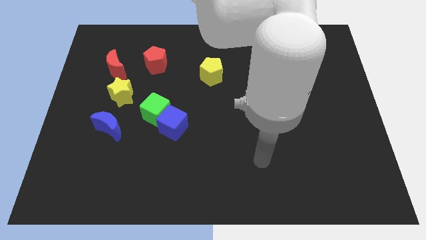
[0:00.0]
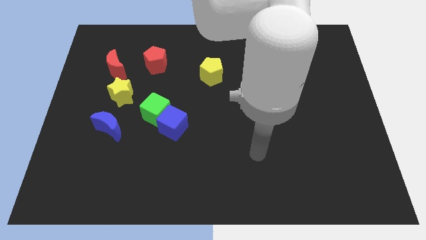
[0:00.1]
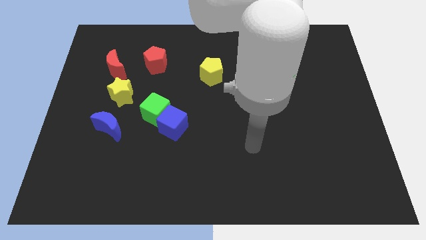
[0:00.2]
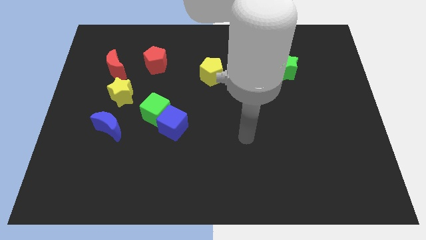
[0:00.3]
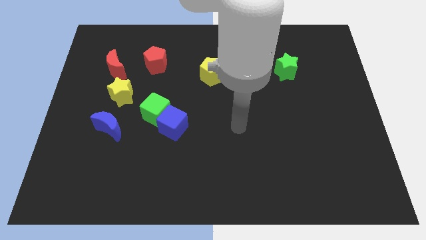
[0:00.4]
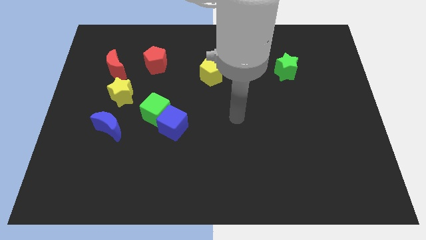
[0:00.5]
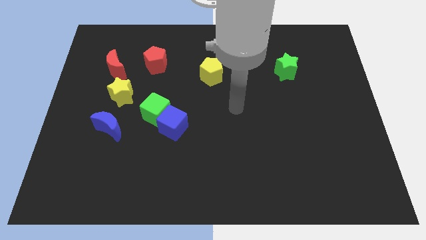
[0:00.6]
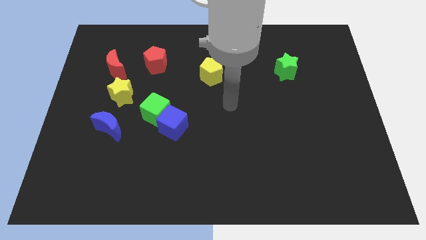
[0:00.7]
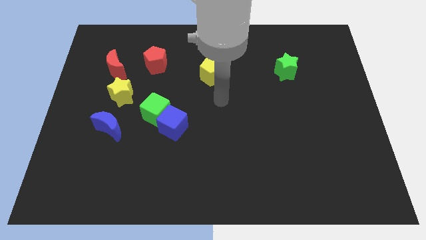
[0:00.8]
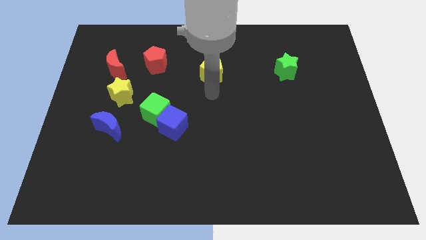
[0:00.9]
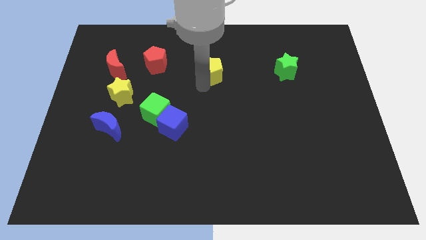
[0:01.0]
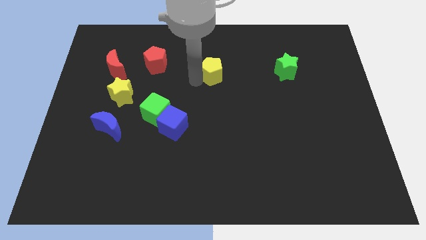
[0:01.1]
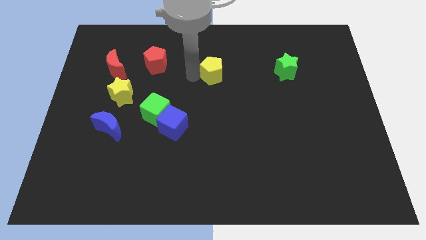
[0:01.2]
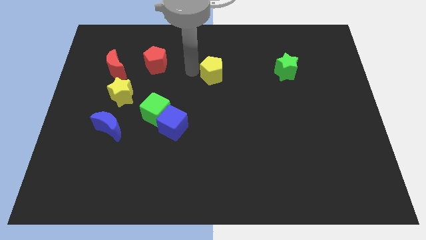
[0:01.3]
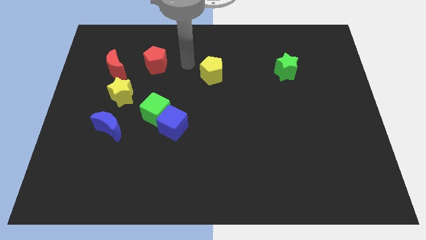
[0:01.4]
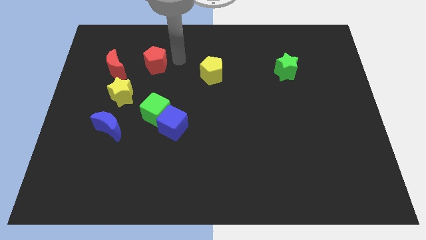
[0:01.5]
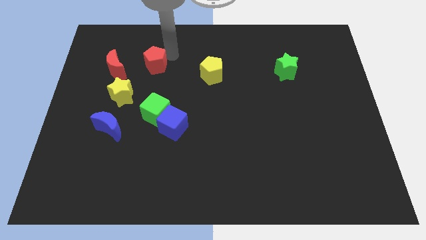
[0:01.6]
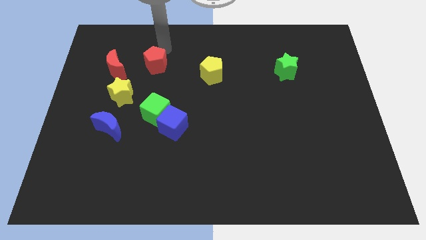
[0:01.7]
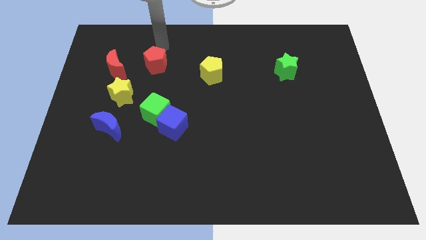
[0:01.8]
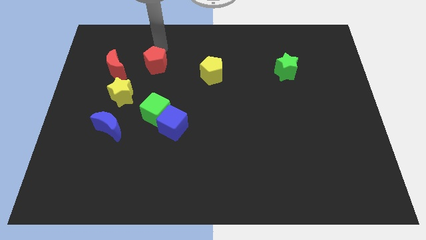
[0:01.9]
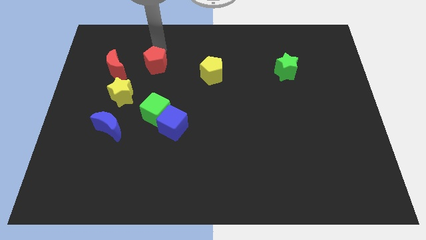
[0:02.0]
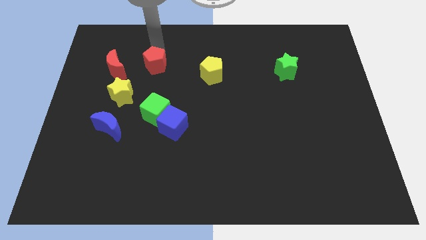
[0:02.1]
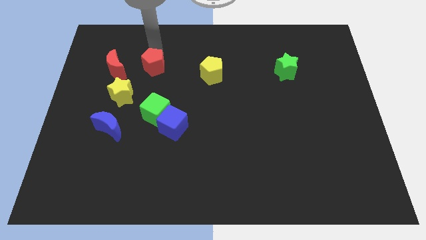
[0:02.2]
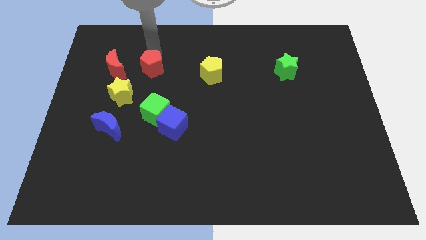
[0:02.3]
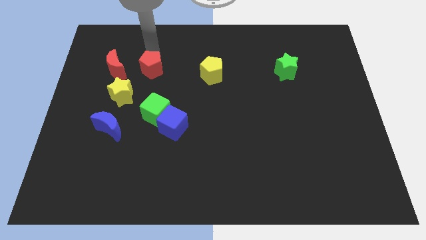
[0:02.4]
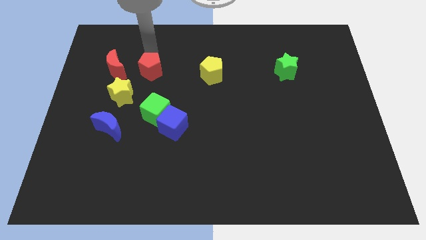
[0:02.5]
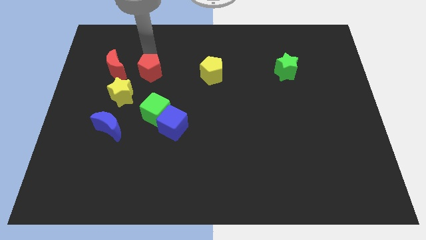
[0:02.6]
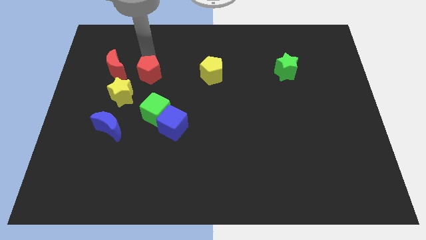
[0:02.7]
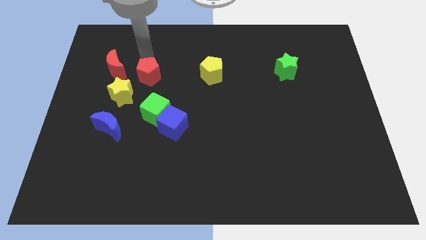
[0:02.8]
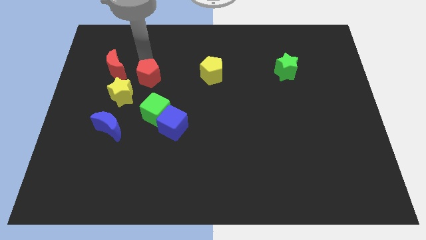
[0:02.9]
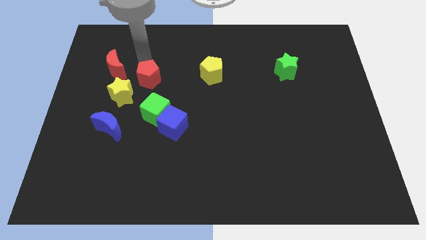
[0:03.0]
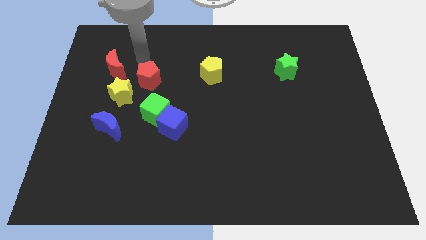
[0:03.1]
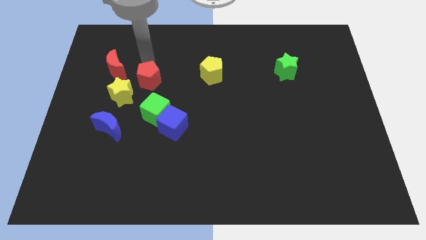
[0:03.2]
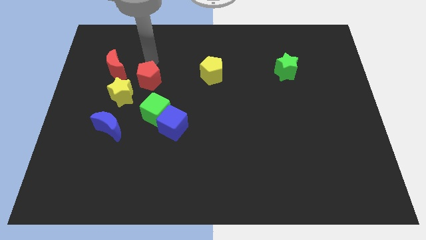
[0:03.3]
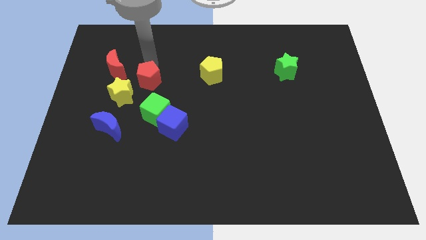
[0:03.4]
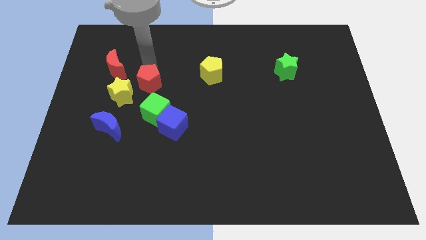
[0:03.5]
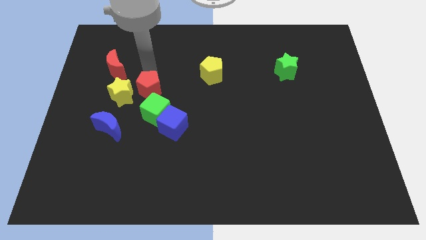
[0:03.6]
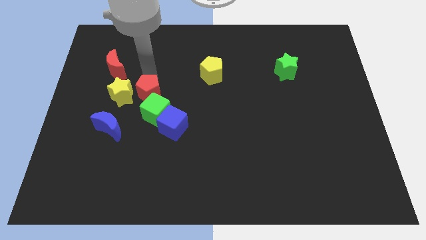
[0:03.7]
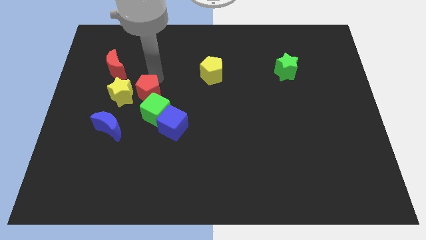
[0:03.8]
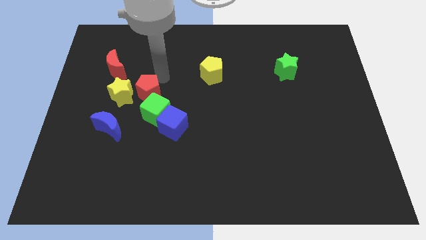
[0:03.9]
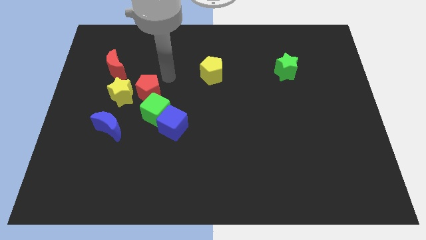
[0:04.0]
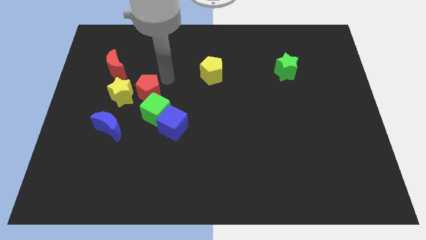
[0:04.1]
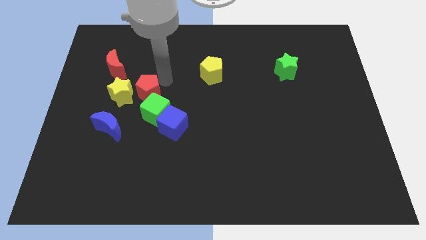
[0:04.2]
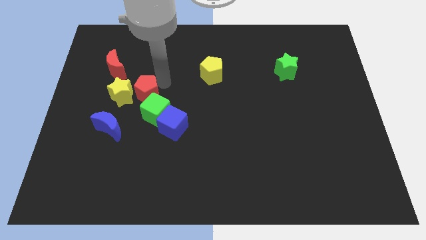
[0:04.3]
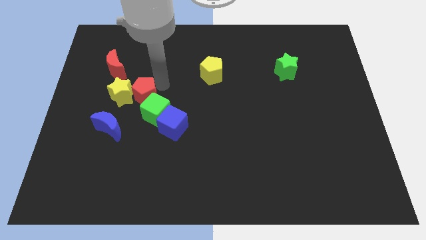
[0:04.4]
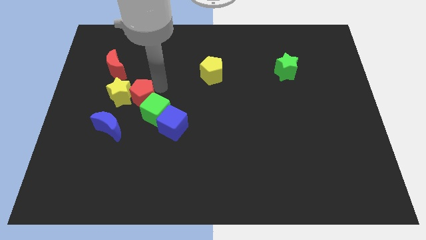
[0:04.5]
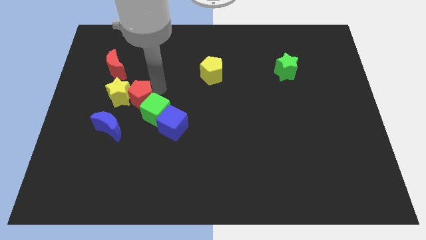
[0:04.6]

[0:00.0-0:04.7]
slide the red pentagon to the left of the green cube

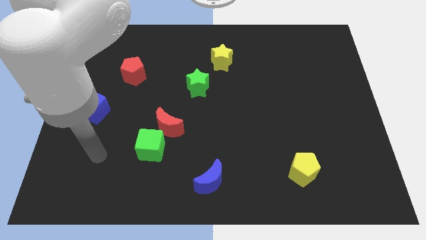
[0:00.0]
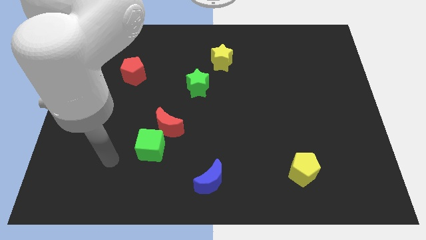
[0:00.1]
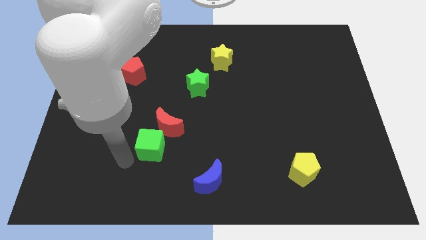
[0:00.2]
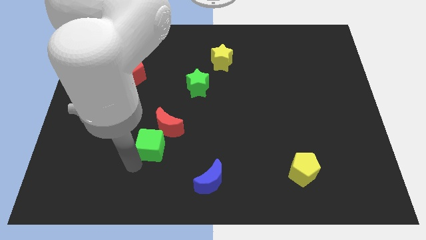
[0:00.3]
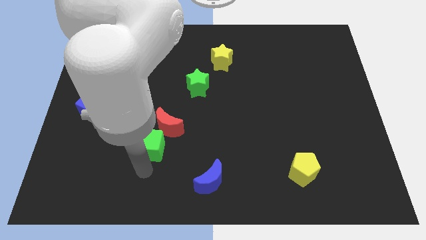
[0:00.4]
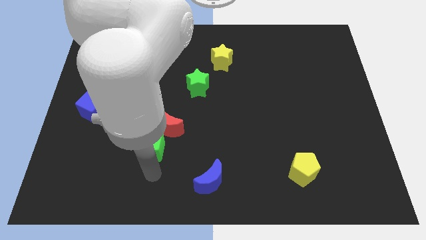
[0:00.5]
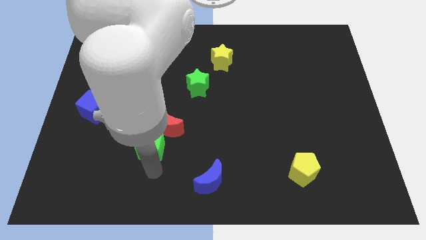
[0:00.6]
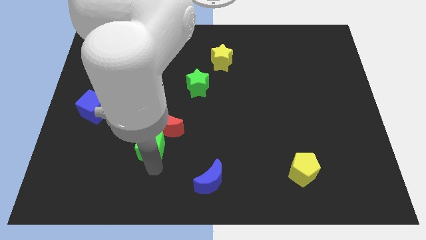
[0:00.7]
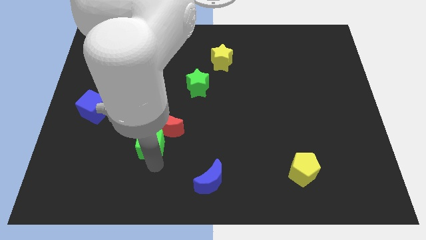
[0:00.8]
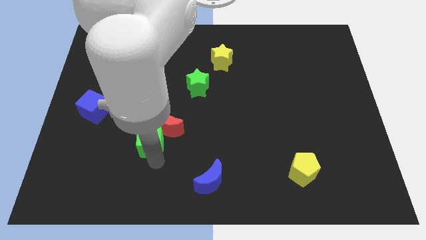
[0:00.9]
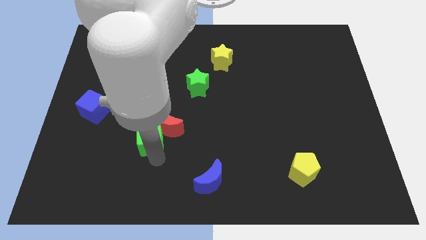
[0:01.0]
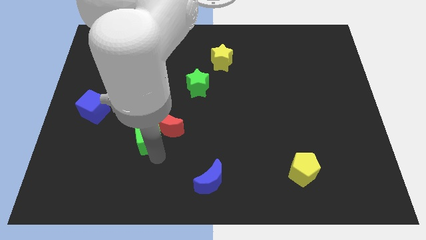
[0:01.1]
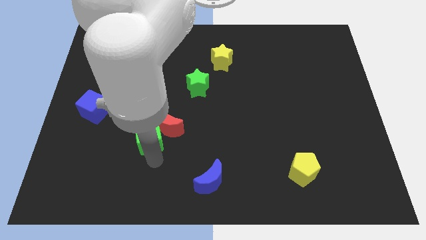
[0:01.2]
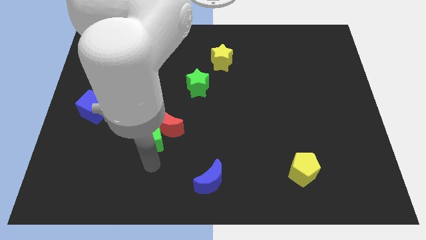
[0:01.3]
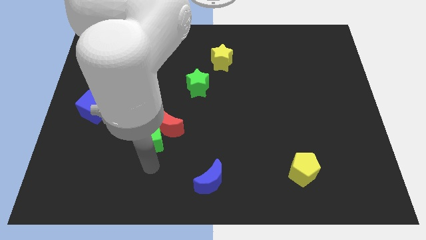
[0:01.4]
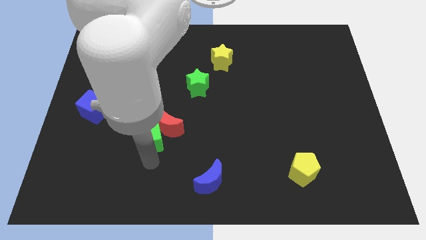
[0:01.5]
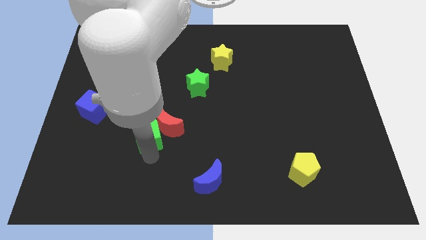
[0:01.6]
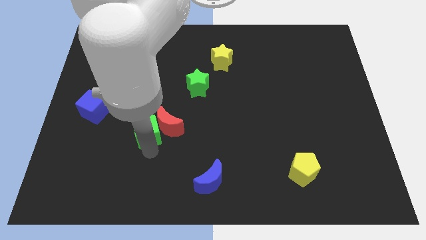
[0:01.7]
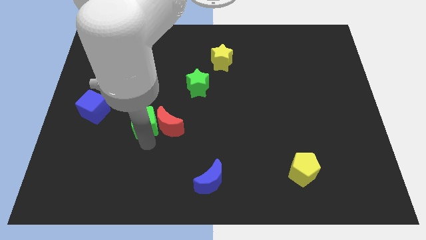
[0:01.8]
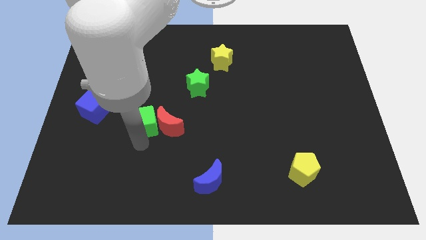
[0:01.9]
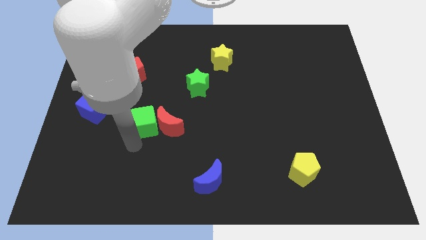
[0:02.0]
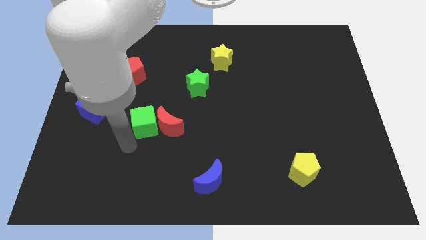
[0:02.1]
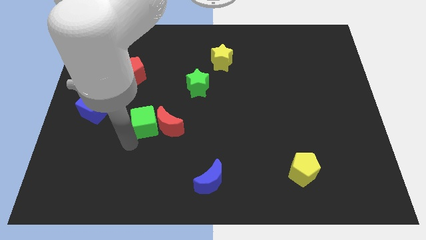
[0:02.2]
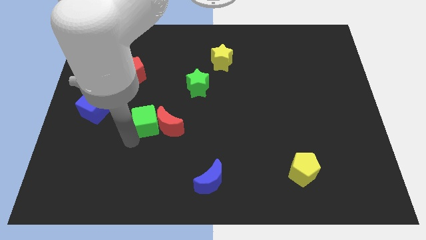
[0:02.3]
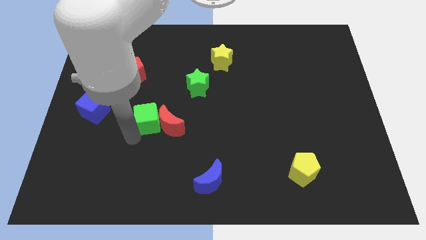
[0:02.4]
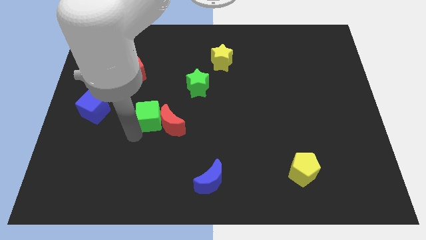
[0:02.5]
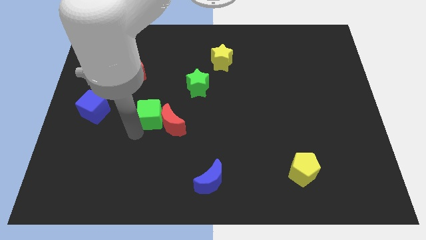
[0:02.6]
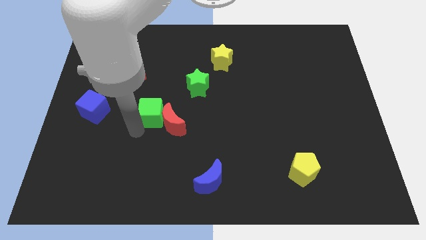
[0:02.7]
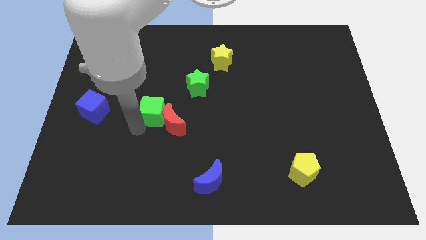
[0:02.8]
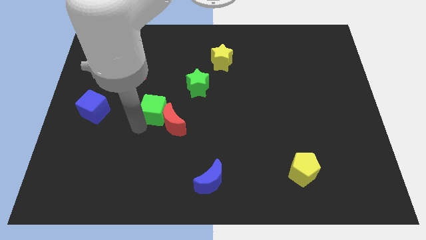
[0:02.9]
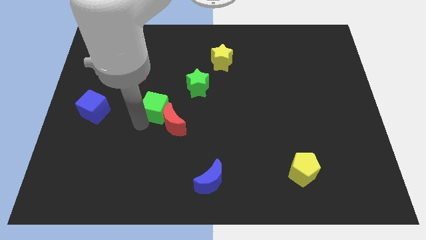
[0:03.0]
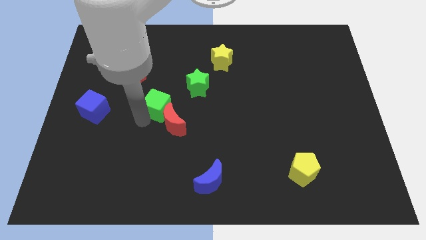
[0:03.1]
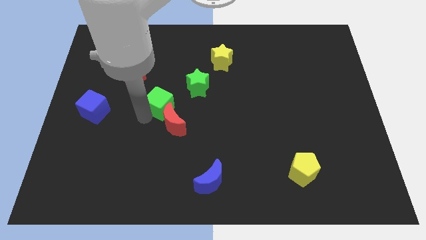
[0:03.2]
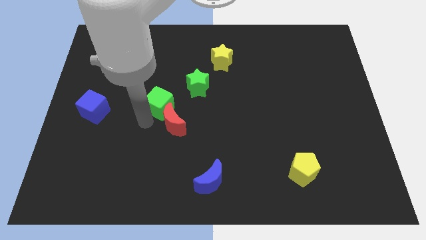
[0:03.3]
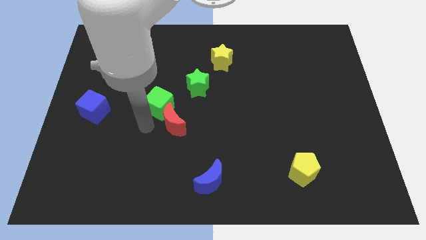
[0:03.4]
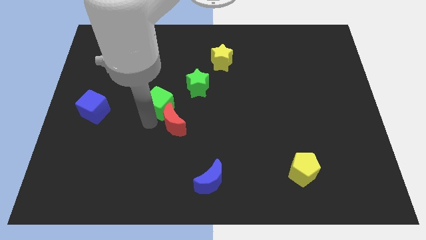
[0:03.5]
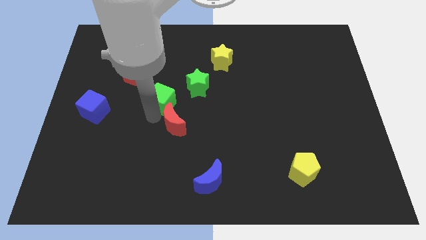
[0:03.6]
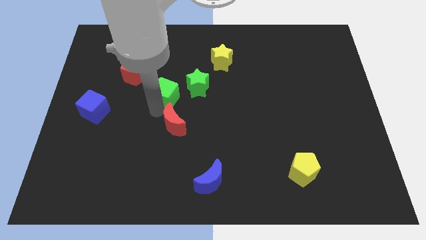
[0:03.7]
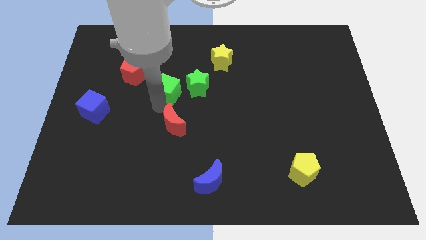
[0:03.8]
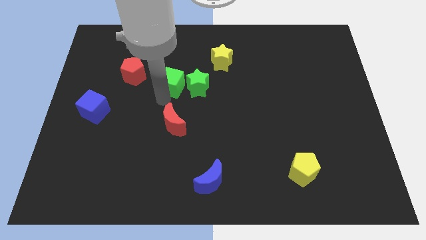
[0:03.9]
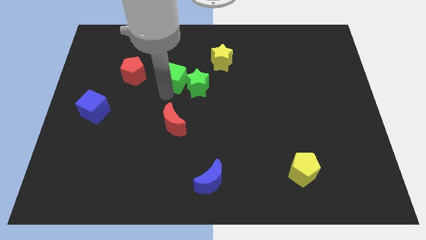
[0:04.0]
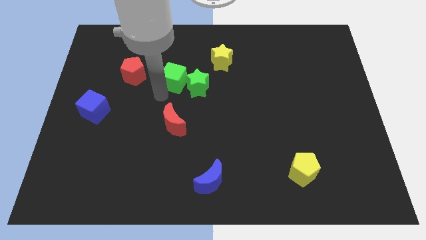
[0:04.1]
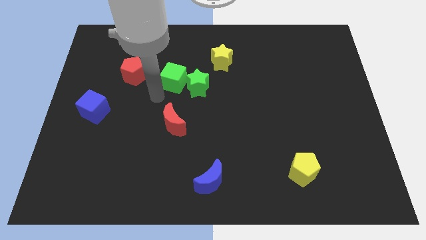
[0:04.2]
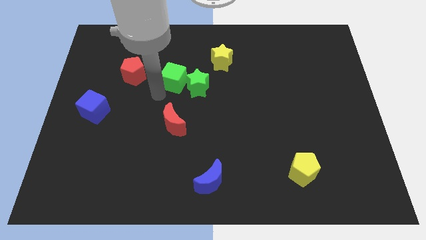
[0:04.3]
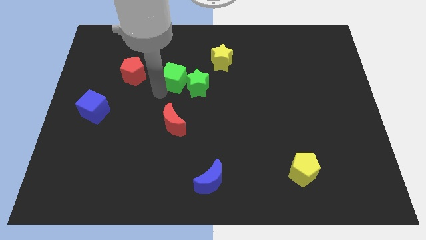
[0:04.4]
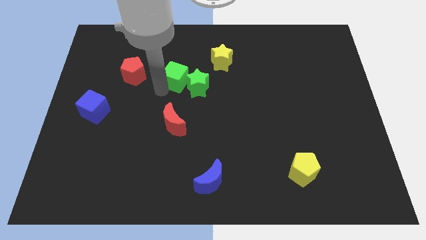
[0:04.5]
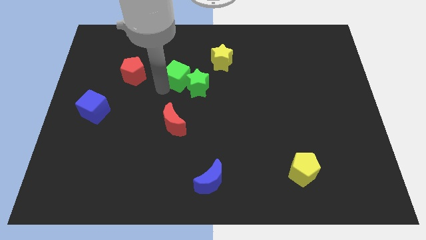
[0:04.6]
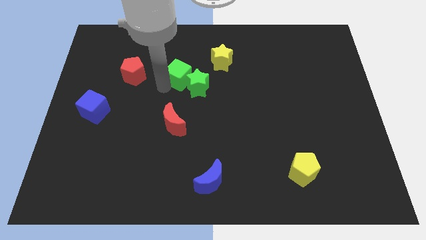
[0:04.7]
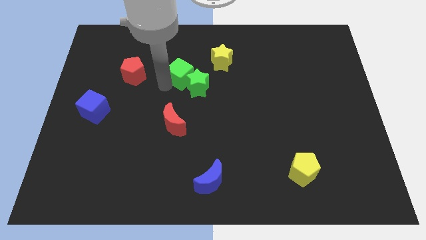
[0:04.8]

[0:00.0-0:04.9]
push the green cube to the top side of the green star
